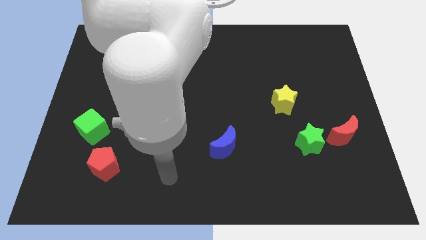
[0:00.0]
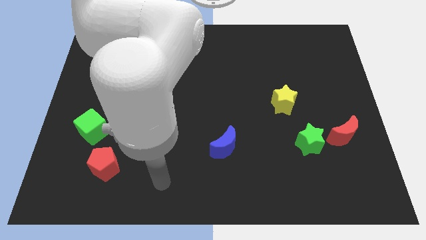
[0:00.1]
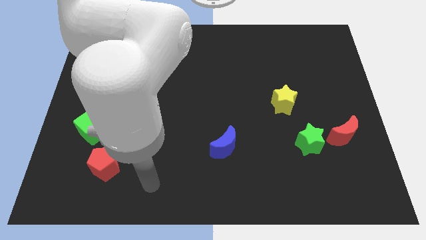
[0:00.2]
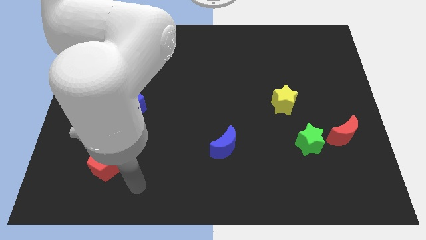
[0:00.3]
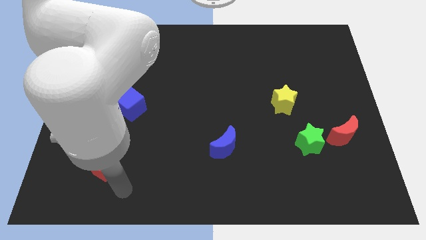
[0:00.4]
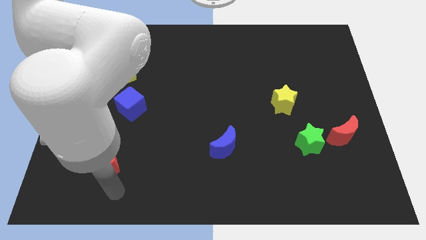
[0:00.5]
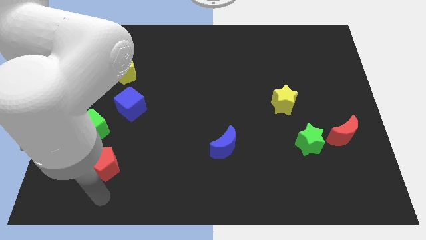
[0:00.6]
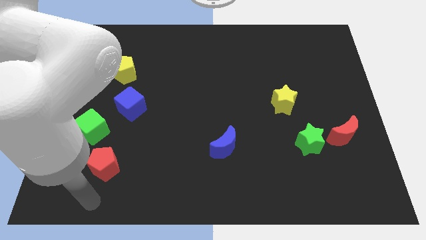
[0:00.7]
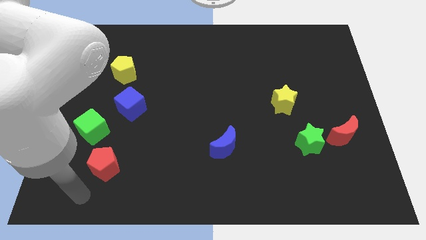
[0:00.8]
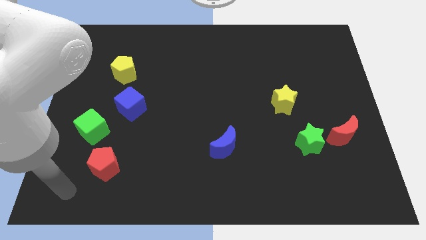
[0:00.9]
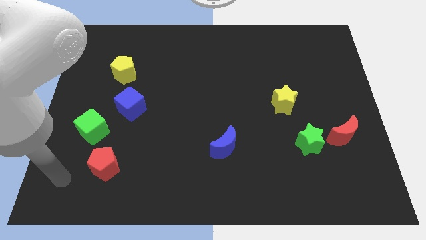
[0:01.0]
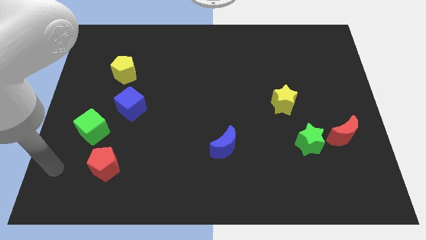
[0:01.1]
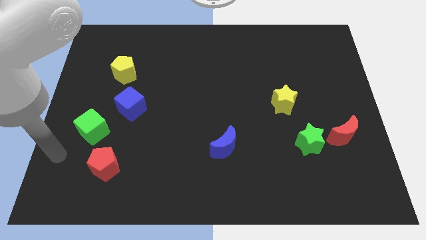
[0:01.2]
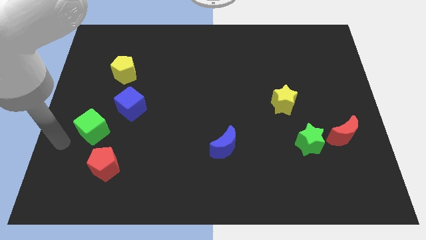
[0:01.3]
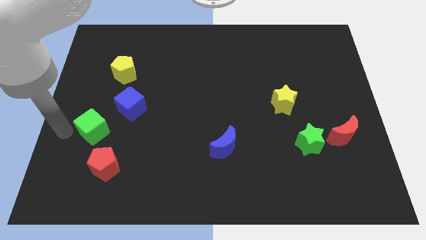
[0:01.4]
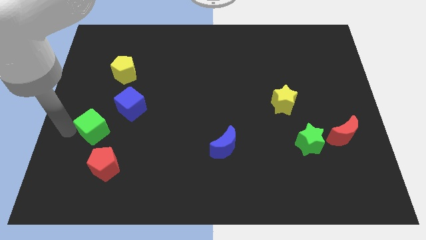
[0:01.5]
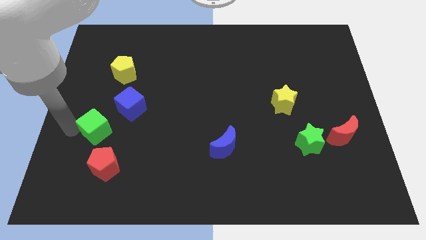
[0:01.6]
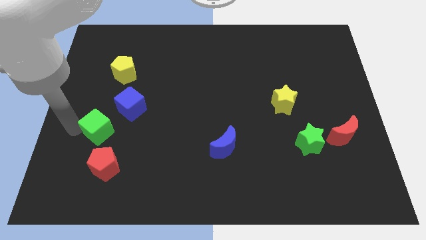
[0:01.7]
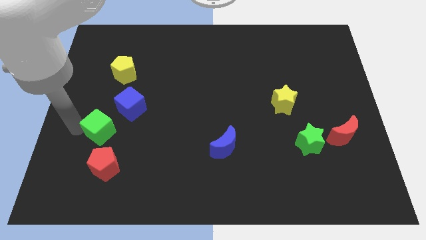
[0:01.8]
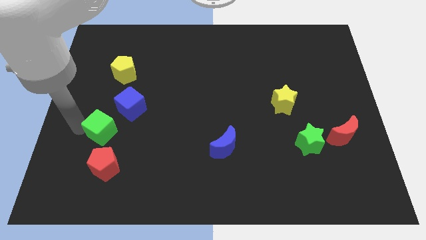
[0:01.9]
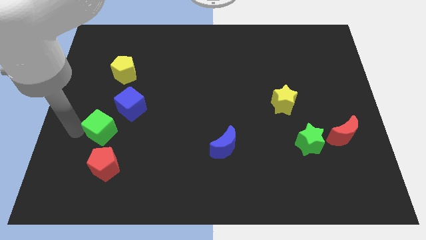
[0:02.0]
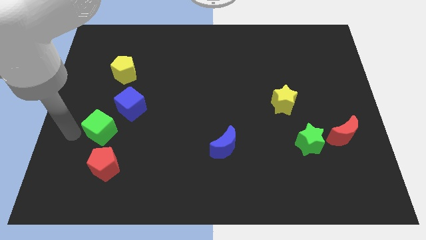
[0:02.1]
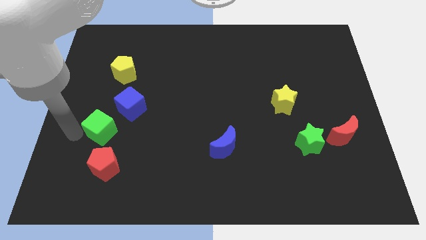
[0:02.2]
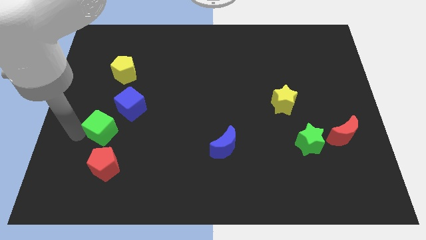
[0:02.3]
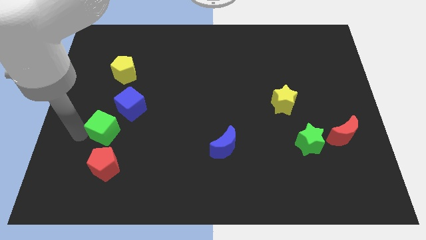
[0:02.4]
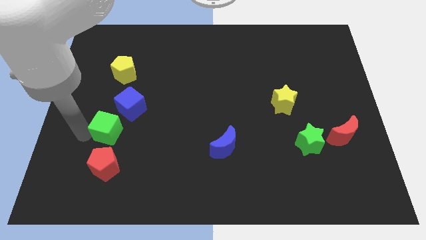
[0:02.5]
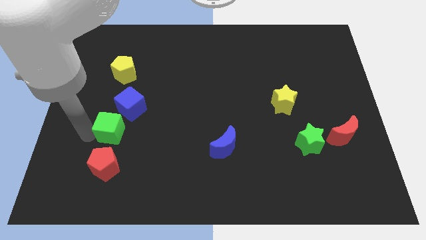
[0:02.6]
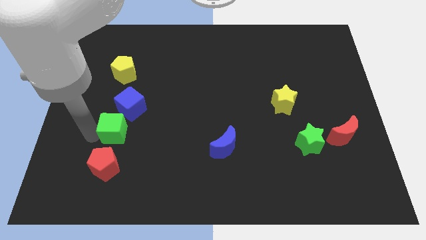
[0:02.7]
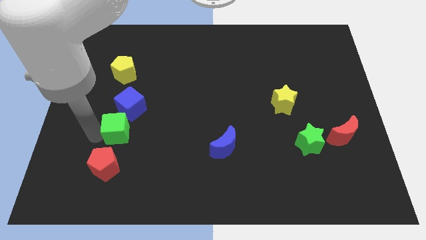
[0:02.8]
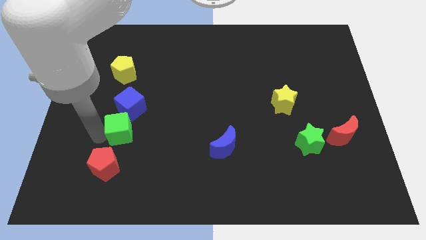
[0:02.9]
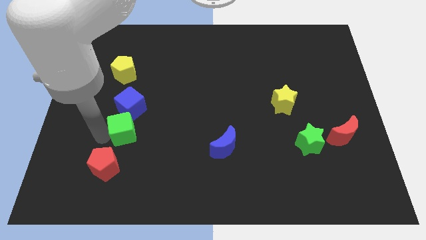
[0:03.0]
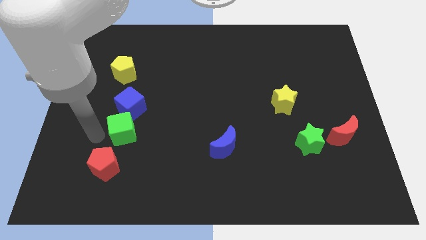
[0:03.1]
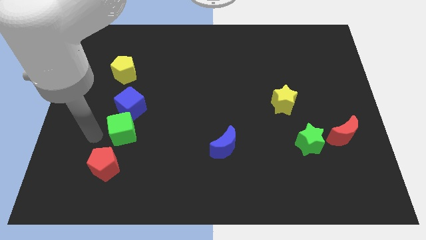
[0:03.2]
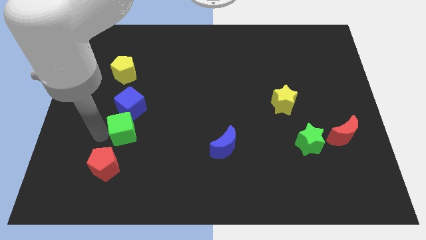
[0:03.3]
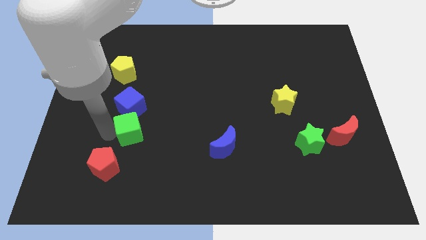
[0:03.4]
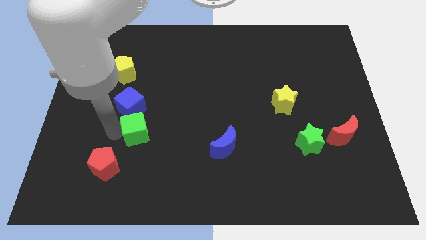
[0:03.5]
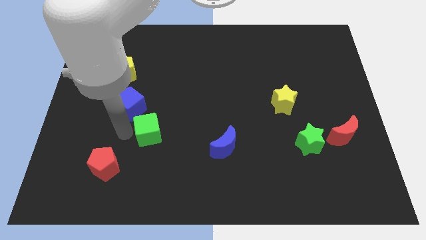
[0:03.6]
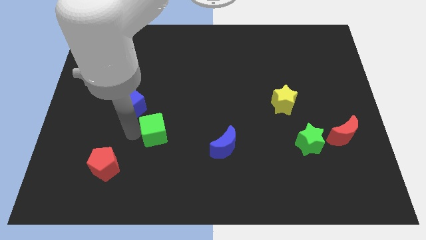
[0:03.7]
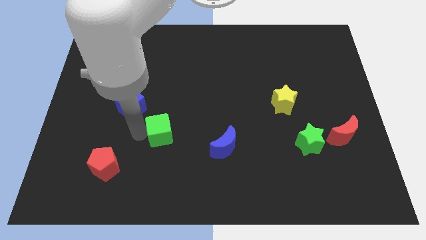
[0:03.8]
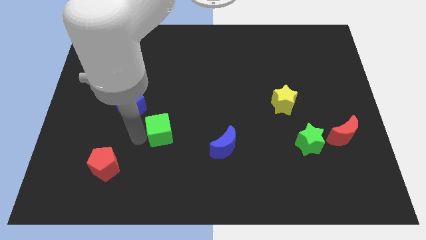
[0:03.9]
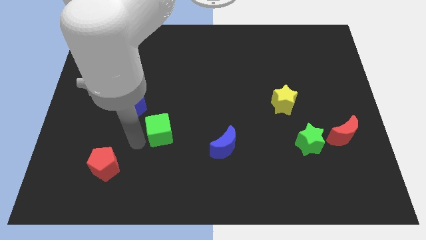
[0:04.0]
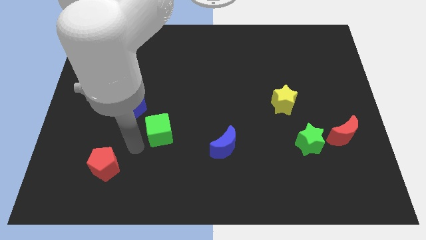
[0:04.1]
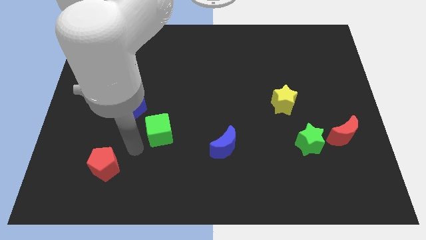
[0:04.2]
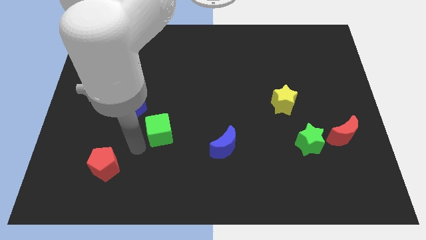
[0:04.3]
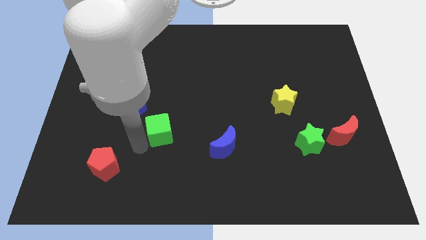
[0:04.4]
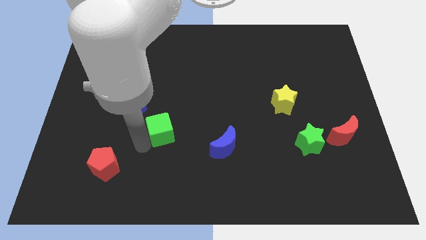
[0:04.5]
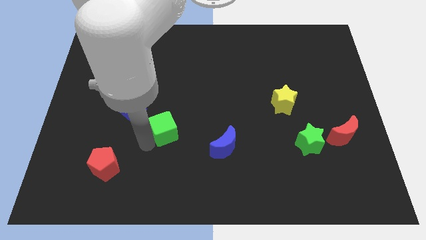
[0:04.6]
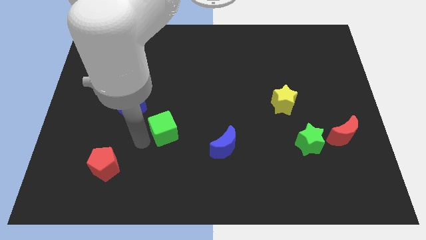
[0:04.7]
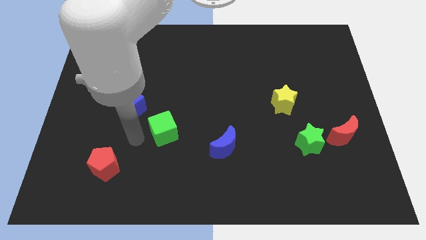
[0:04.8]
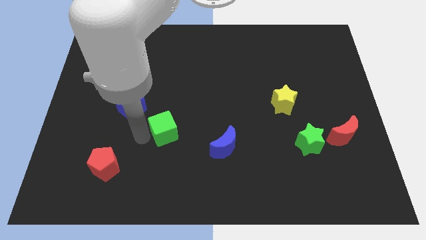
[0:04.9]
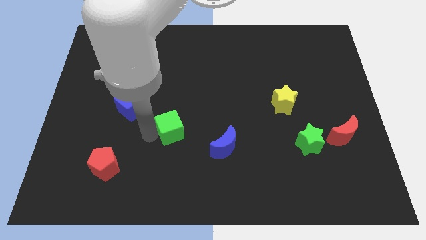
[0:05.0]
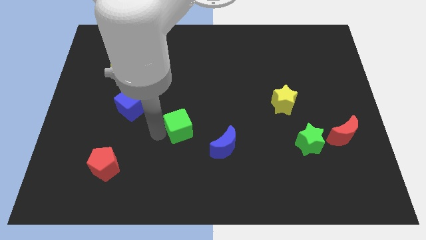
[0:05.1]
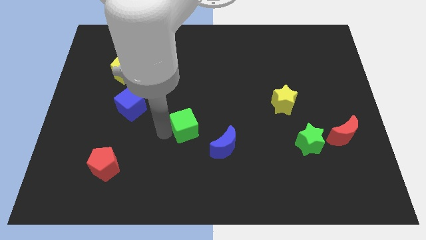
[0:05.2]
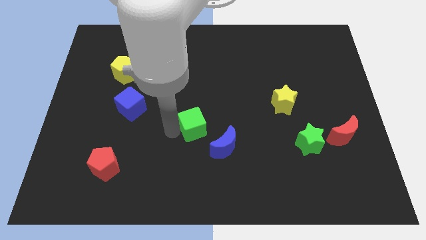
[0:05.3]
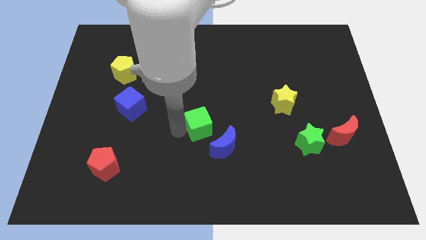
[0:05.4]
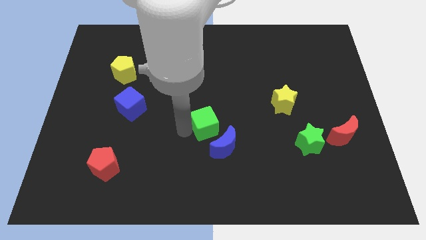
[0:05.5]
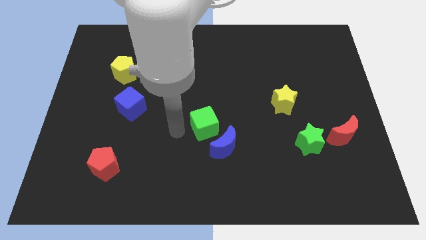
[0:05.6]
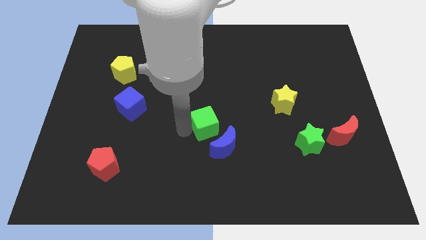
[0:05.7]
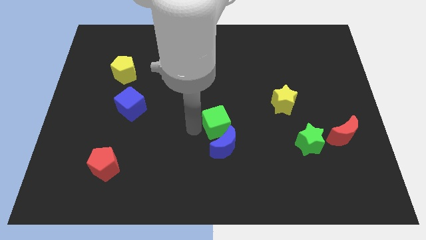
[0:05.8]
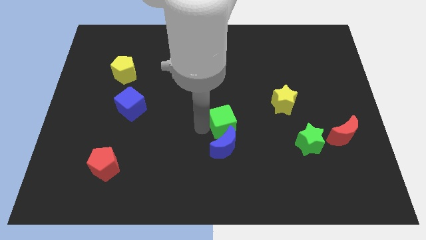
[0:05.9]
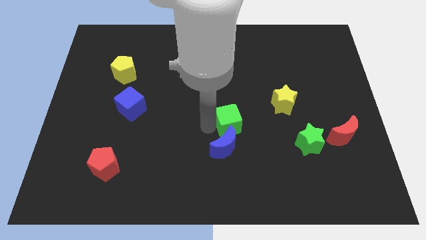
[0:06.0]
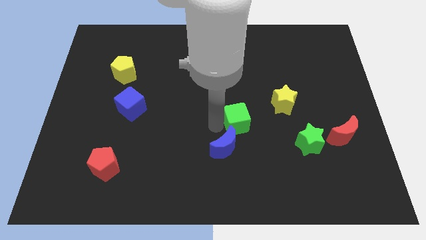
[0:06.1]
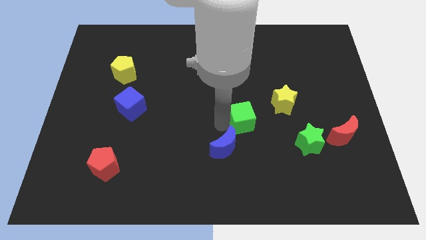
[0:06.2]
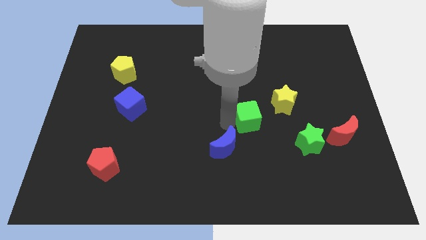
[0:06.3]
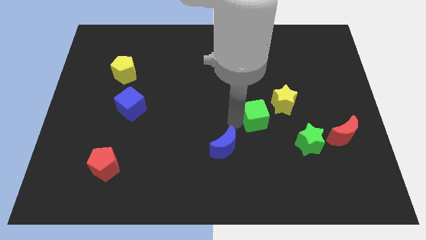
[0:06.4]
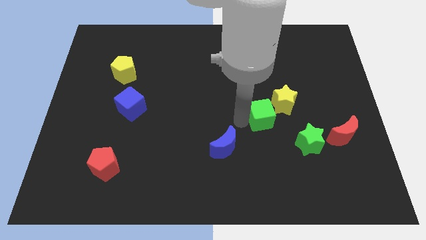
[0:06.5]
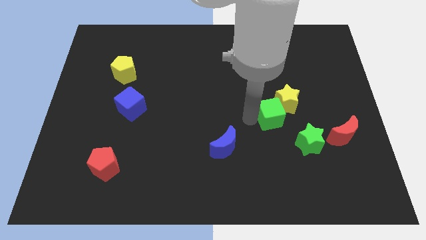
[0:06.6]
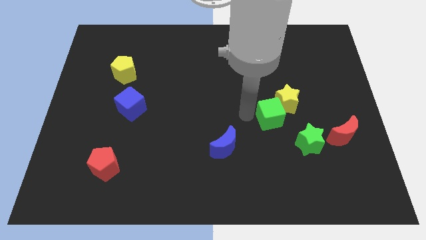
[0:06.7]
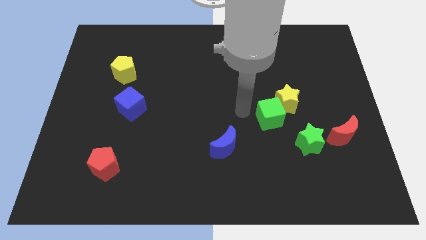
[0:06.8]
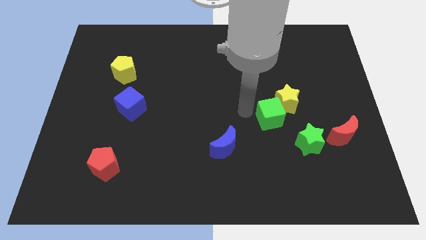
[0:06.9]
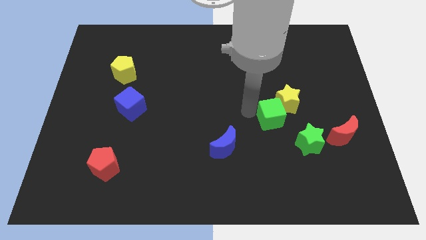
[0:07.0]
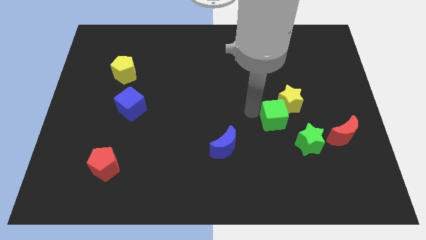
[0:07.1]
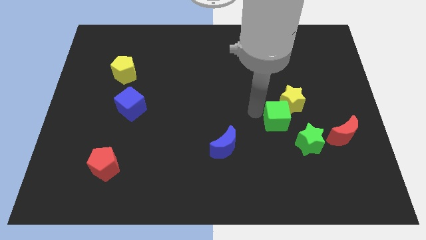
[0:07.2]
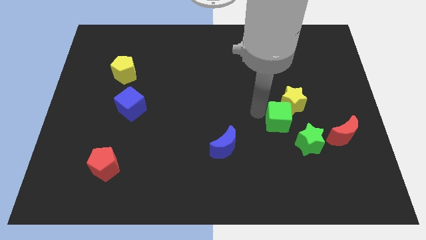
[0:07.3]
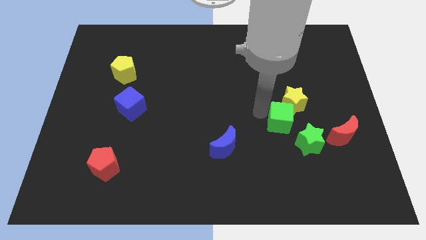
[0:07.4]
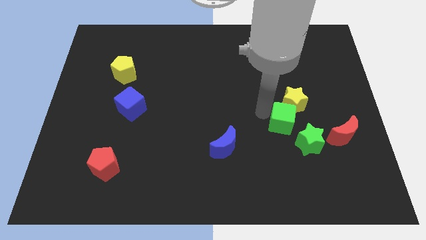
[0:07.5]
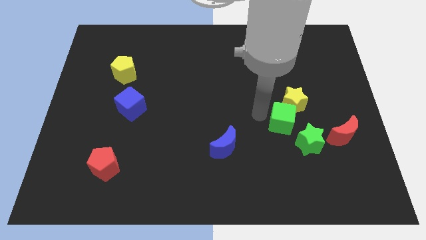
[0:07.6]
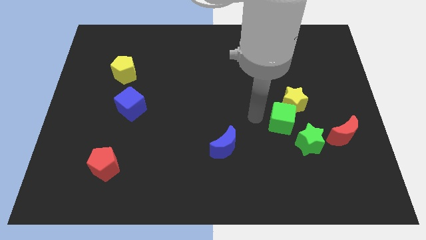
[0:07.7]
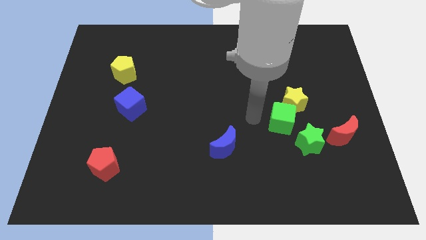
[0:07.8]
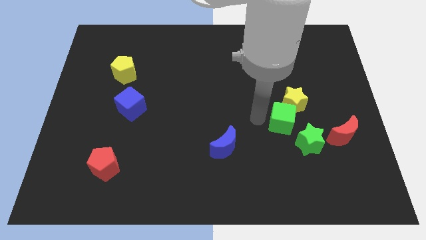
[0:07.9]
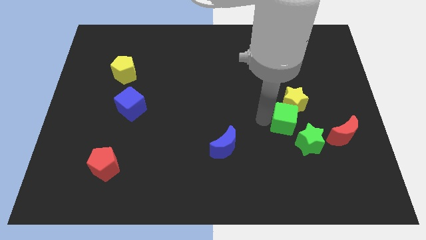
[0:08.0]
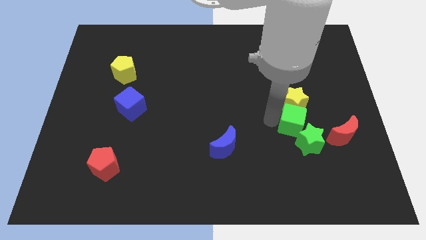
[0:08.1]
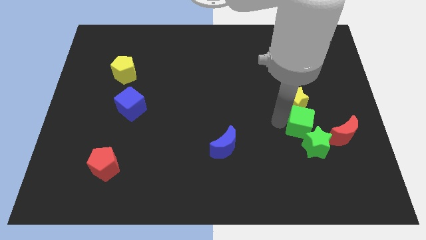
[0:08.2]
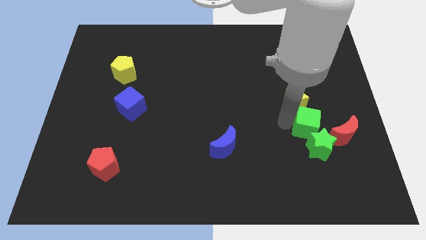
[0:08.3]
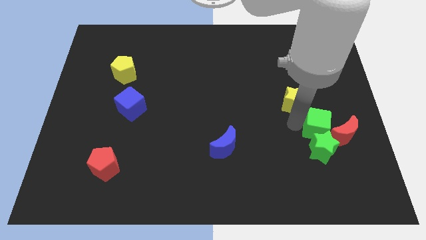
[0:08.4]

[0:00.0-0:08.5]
push the green cube next to the red moon
